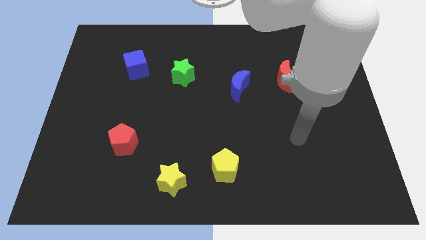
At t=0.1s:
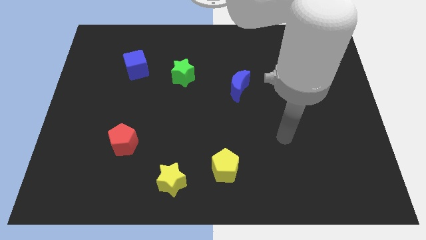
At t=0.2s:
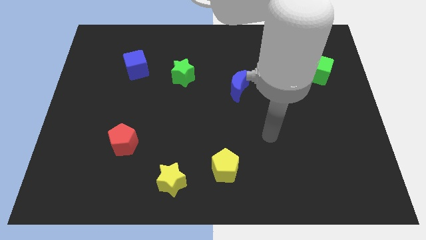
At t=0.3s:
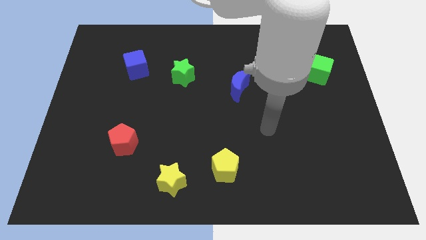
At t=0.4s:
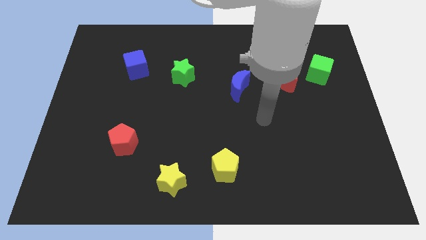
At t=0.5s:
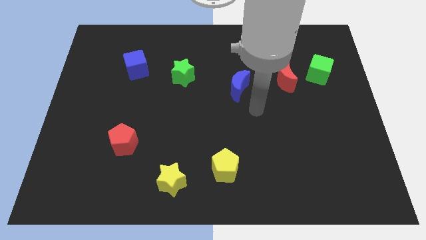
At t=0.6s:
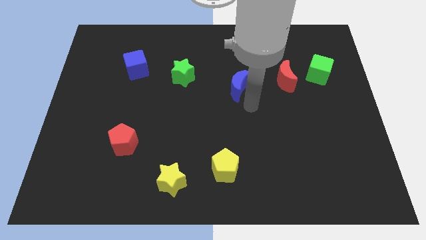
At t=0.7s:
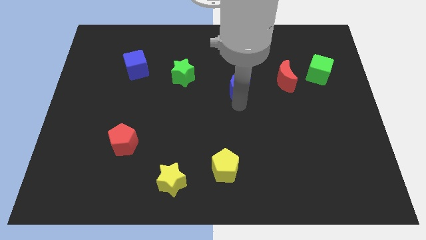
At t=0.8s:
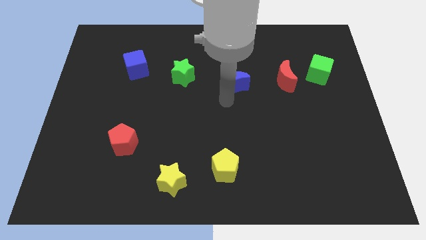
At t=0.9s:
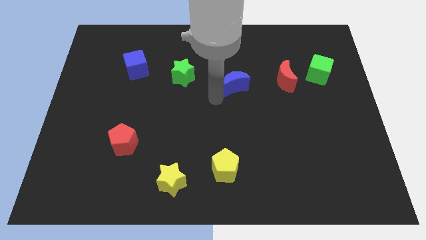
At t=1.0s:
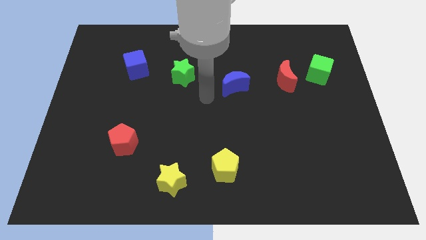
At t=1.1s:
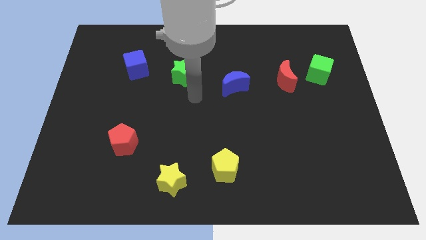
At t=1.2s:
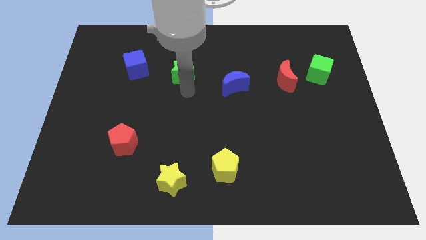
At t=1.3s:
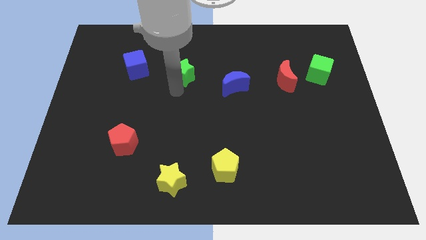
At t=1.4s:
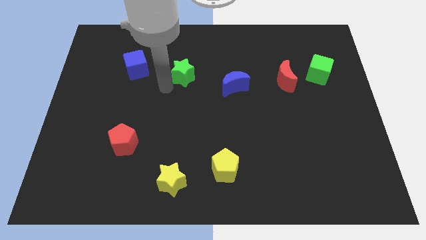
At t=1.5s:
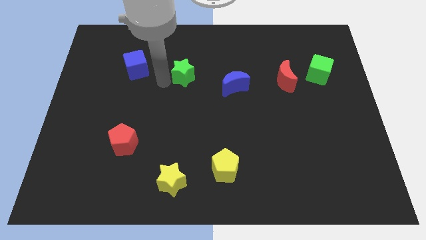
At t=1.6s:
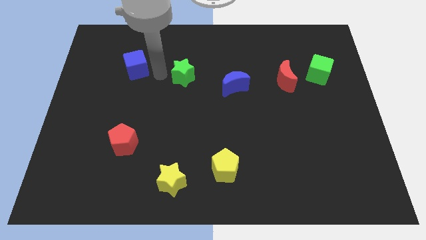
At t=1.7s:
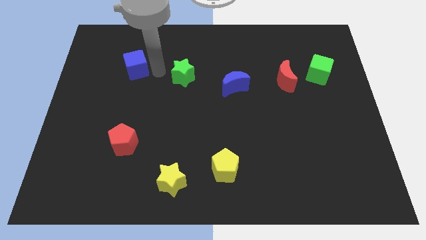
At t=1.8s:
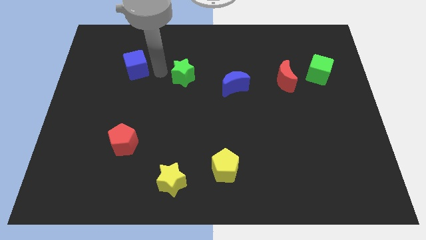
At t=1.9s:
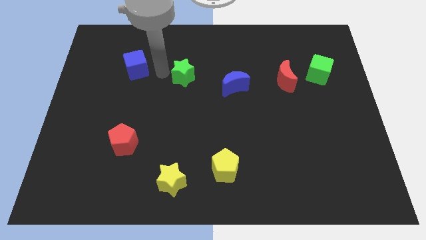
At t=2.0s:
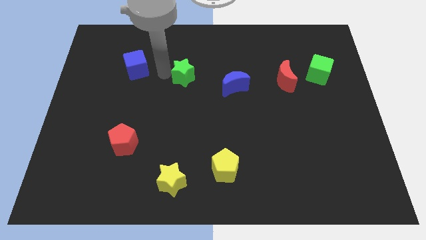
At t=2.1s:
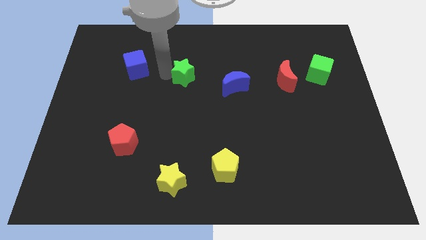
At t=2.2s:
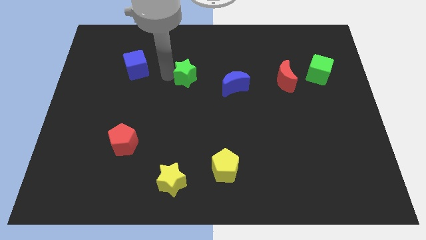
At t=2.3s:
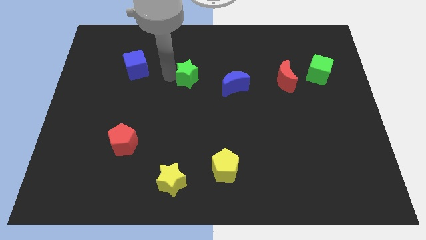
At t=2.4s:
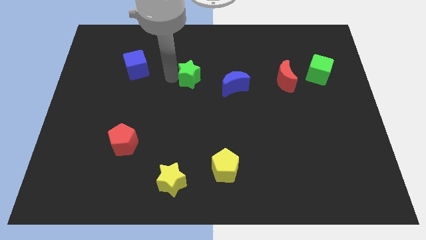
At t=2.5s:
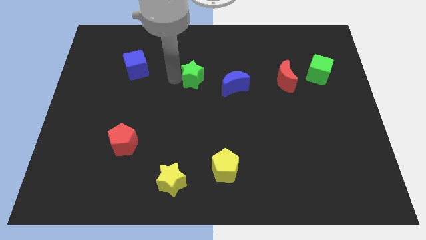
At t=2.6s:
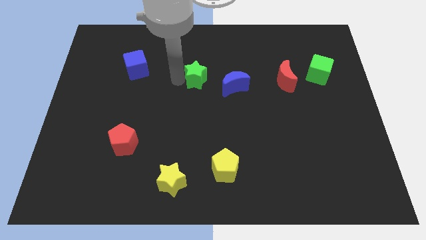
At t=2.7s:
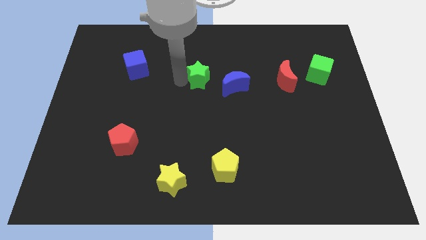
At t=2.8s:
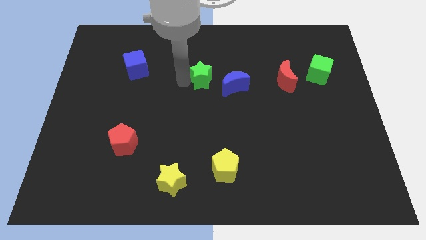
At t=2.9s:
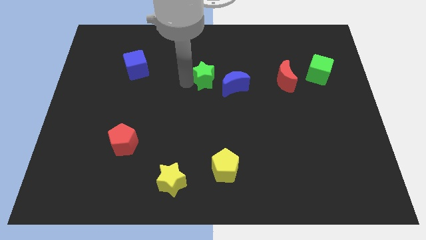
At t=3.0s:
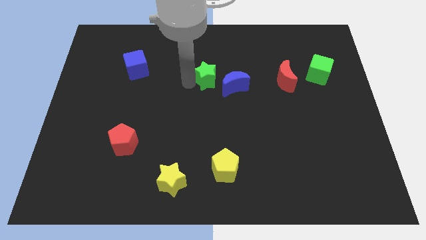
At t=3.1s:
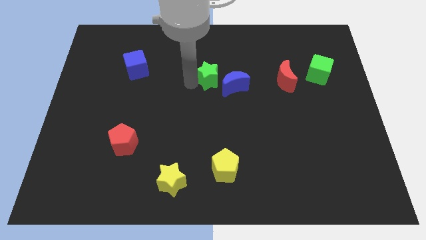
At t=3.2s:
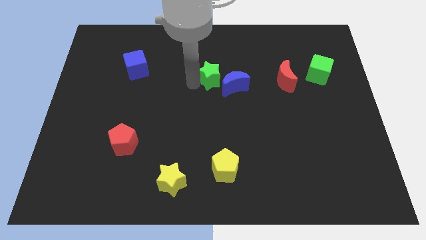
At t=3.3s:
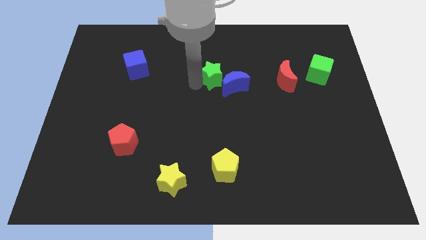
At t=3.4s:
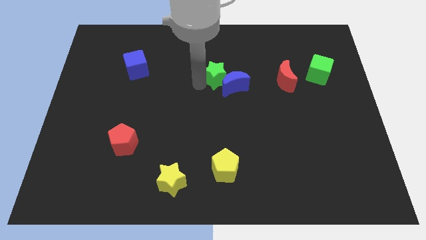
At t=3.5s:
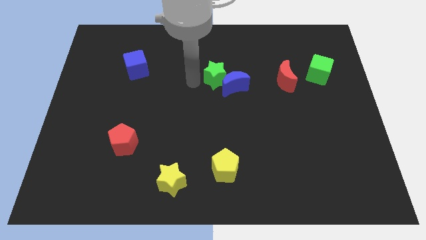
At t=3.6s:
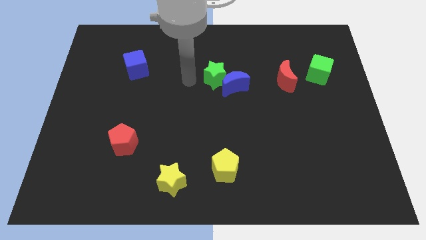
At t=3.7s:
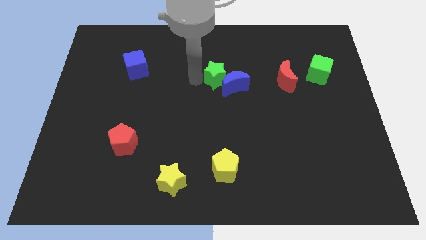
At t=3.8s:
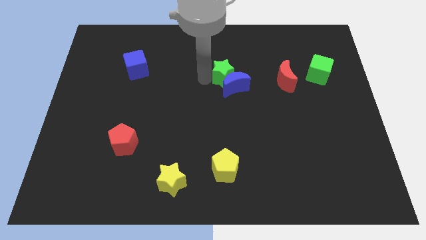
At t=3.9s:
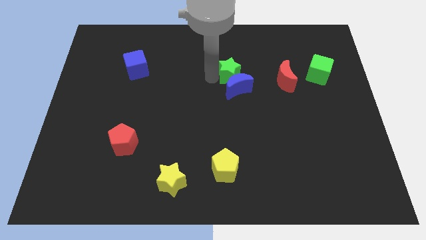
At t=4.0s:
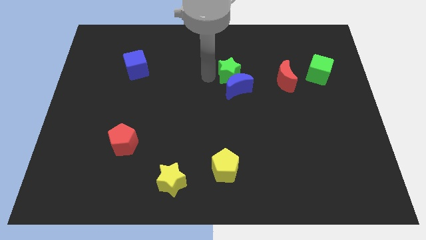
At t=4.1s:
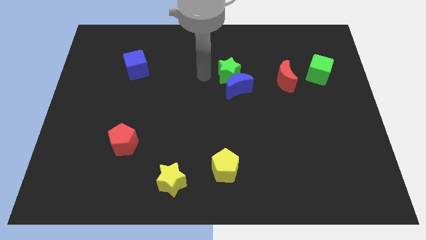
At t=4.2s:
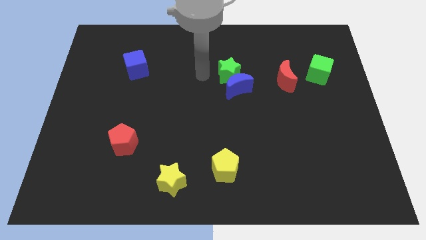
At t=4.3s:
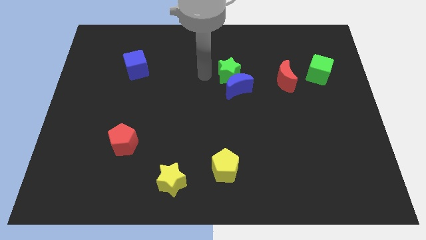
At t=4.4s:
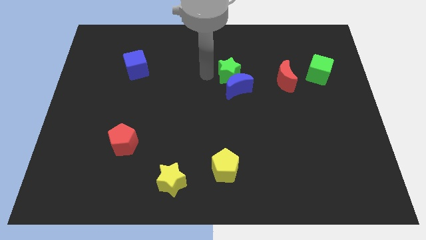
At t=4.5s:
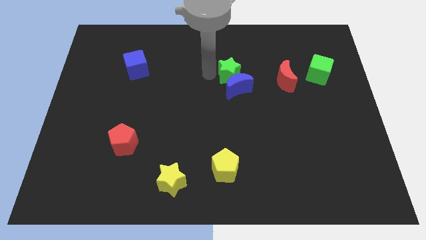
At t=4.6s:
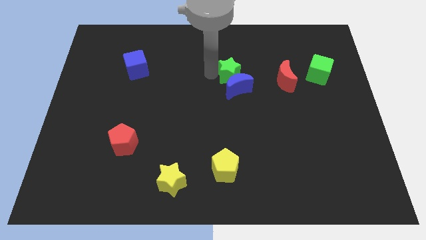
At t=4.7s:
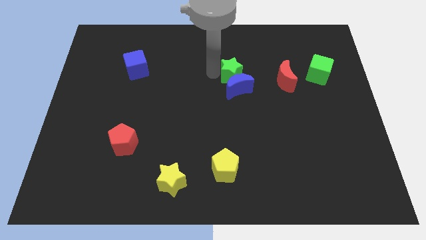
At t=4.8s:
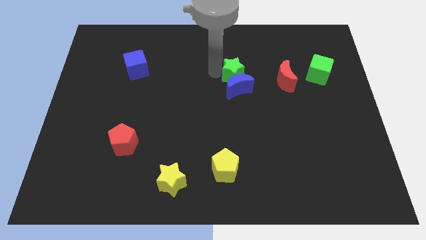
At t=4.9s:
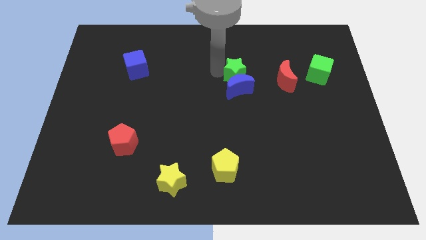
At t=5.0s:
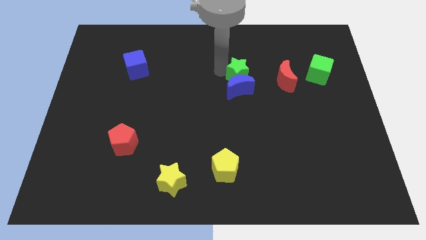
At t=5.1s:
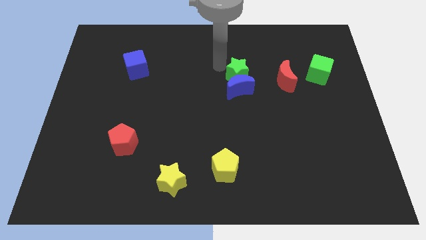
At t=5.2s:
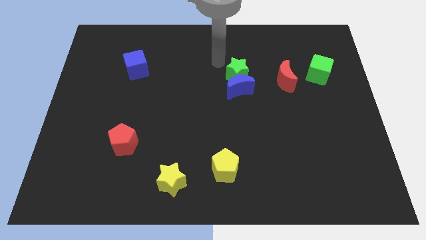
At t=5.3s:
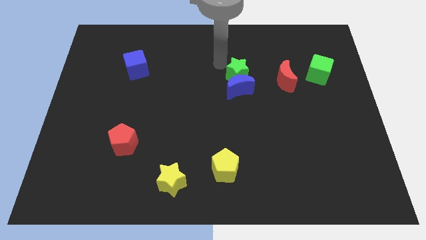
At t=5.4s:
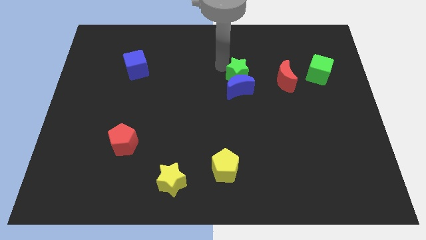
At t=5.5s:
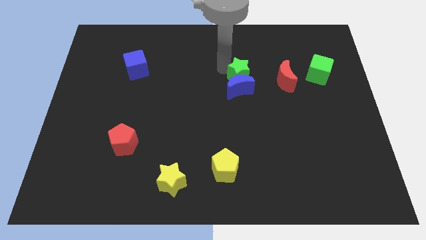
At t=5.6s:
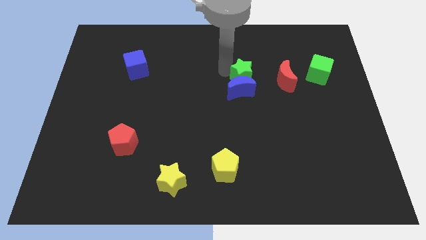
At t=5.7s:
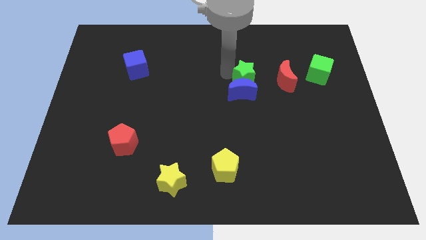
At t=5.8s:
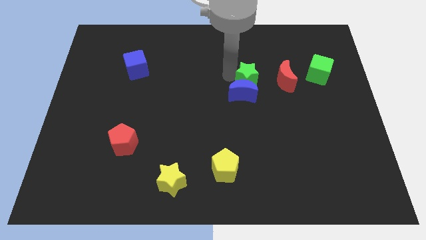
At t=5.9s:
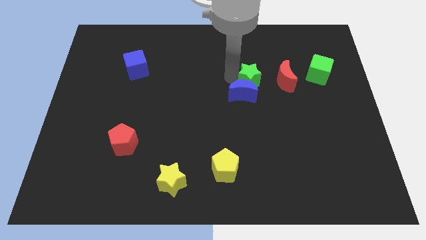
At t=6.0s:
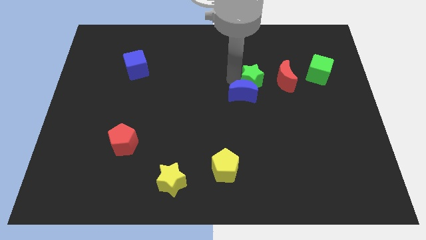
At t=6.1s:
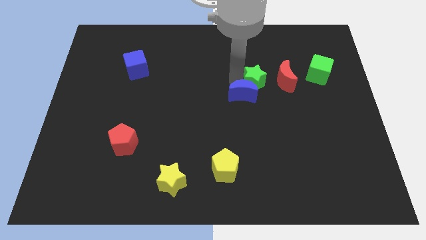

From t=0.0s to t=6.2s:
slide the green star to the bottom left side of the red moon

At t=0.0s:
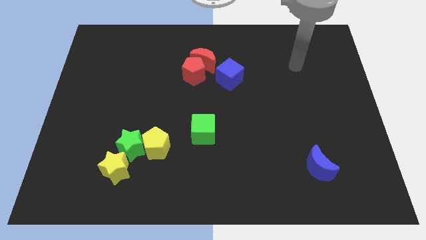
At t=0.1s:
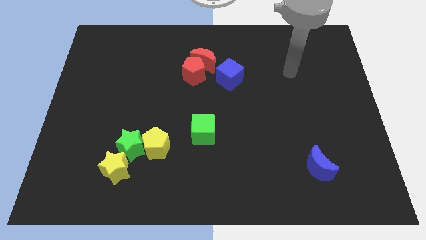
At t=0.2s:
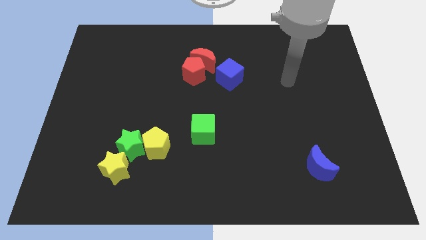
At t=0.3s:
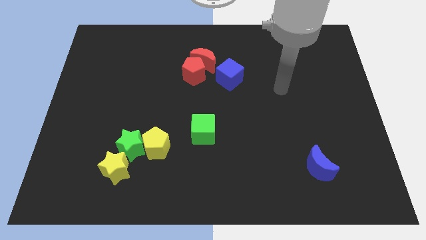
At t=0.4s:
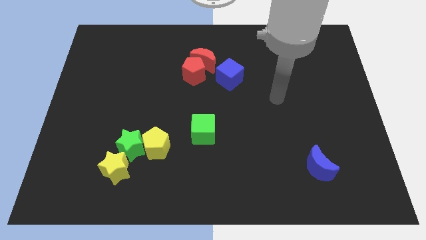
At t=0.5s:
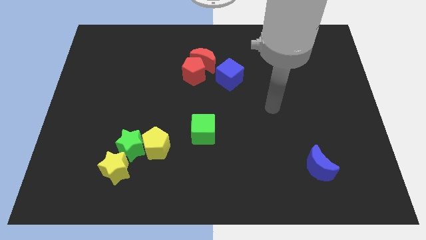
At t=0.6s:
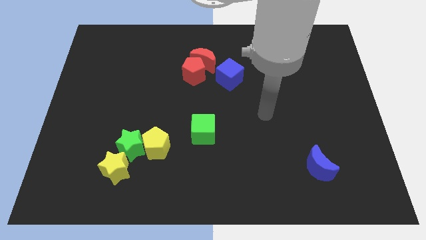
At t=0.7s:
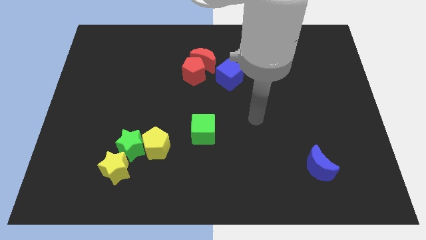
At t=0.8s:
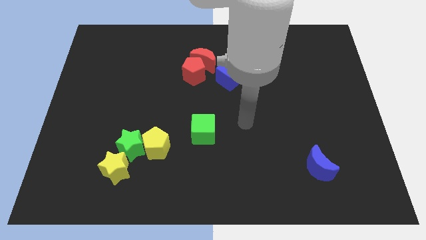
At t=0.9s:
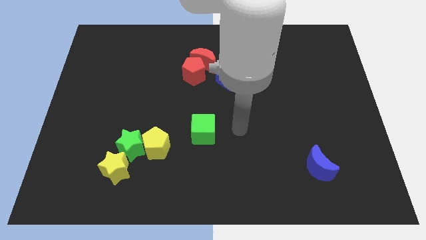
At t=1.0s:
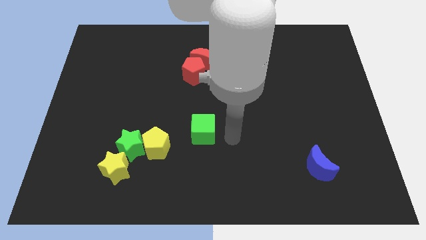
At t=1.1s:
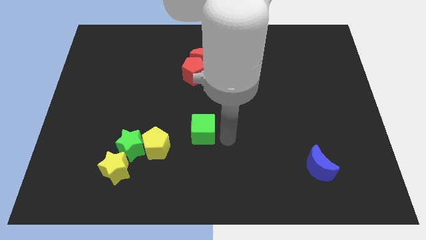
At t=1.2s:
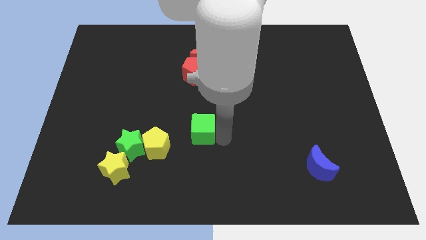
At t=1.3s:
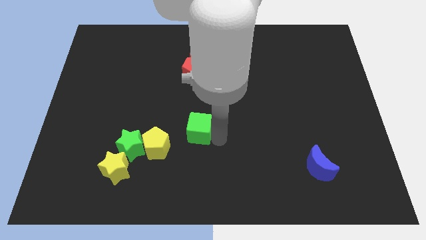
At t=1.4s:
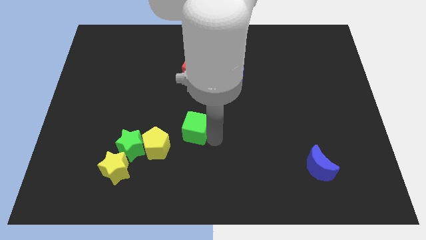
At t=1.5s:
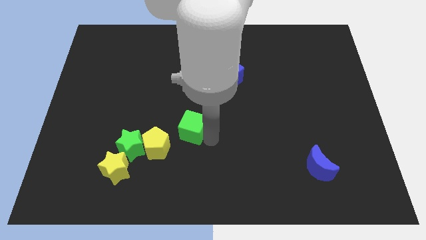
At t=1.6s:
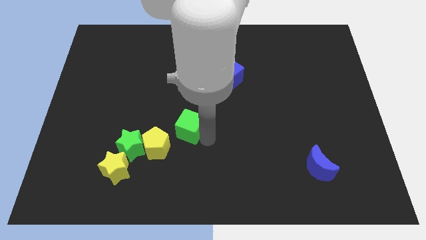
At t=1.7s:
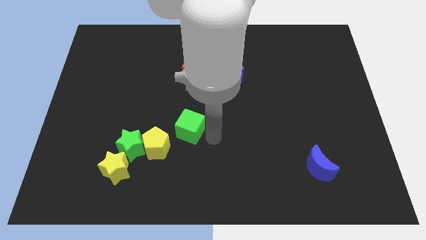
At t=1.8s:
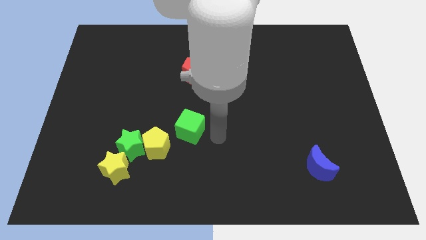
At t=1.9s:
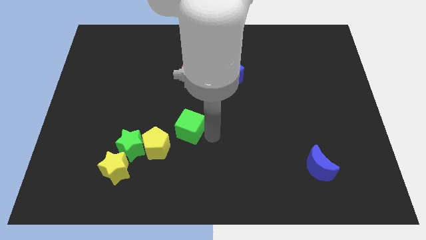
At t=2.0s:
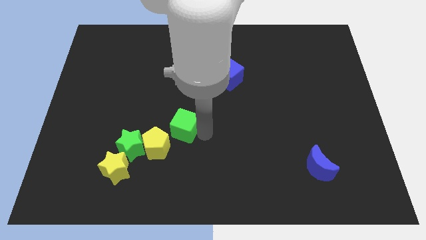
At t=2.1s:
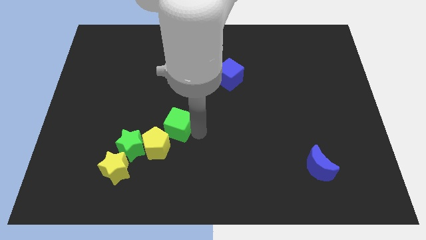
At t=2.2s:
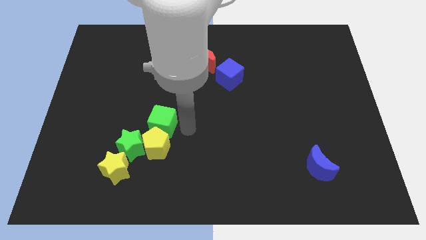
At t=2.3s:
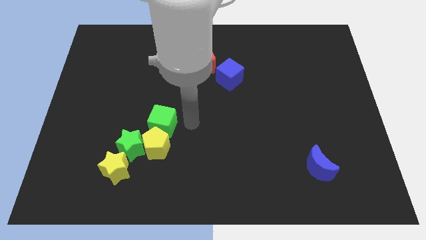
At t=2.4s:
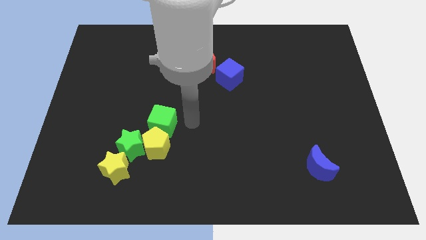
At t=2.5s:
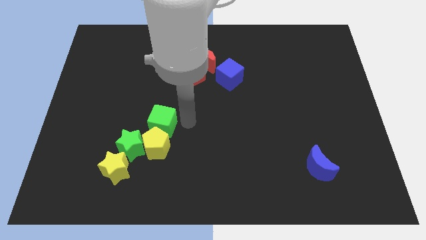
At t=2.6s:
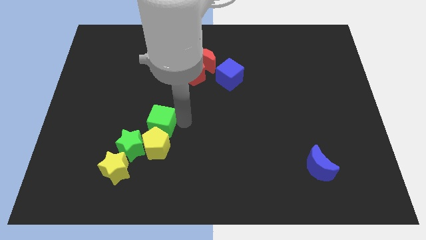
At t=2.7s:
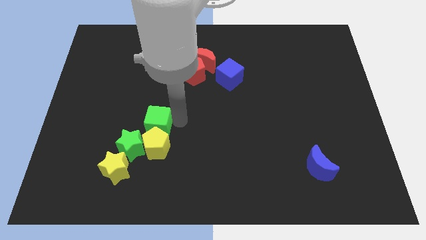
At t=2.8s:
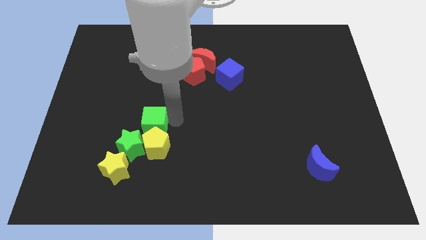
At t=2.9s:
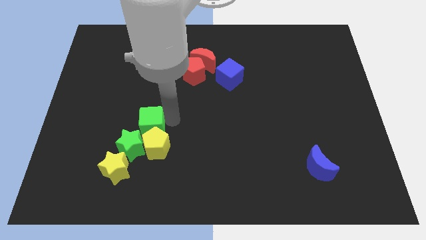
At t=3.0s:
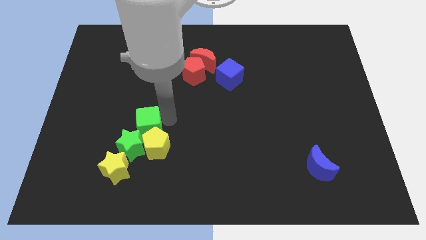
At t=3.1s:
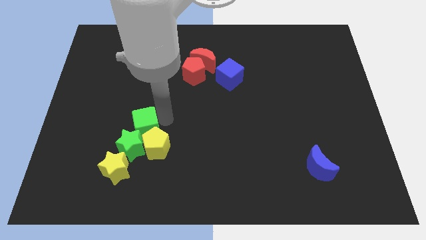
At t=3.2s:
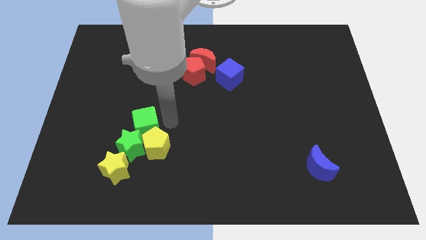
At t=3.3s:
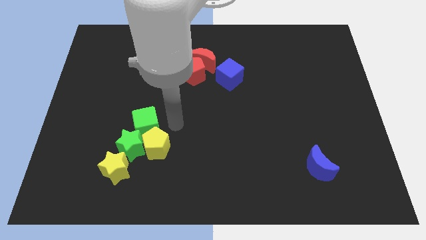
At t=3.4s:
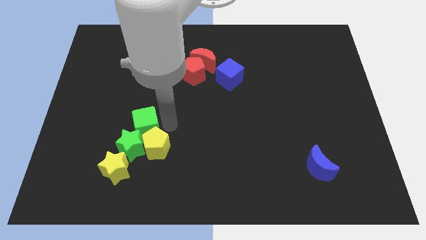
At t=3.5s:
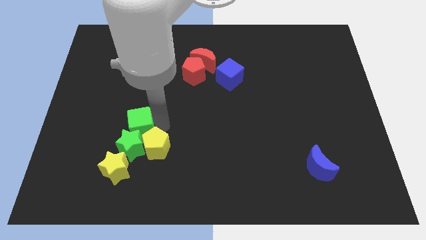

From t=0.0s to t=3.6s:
slide the green cube to the top of the yellow star
